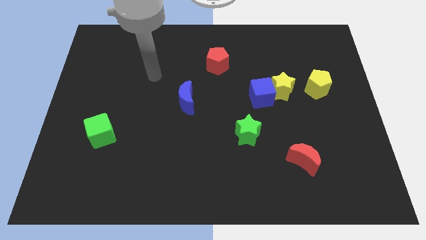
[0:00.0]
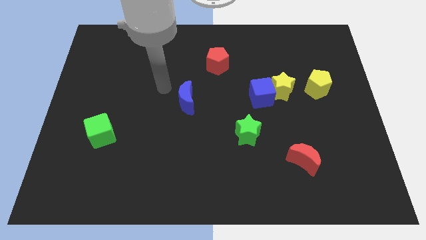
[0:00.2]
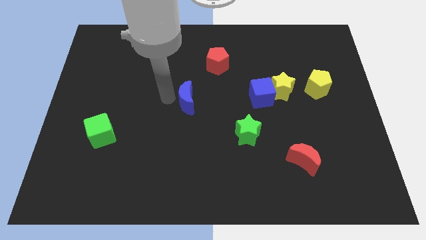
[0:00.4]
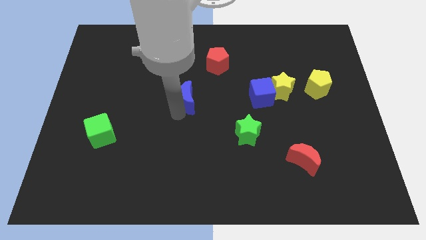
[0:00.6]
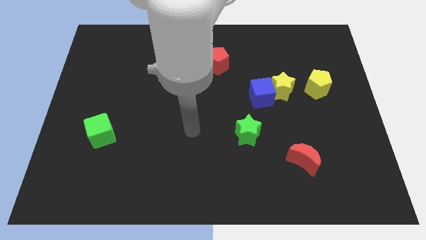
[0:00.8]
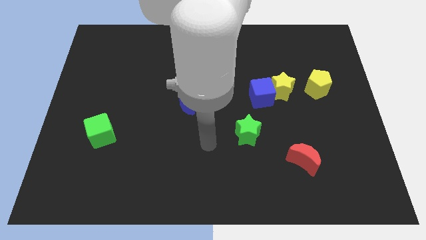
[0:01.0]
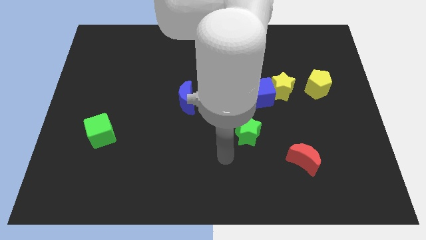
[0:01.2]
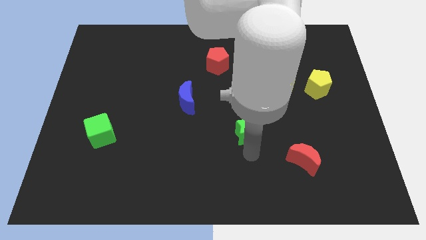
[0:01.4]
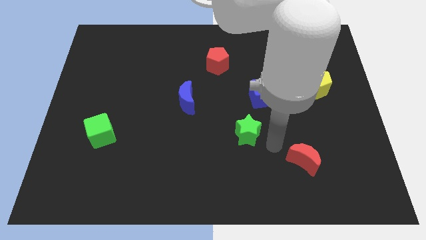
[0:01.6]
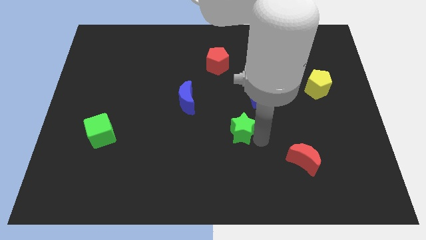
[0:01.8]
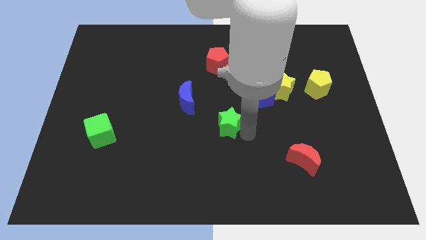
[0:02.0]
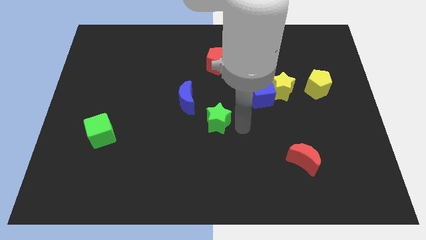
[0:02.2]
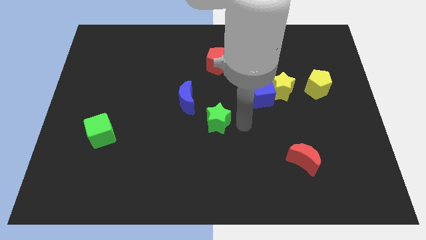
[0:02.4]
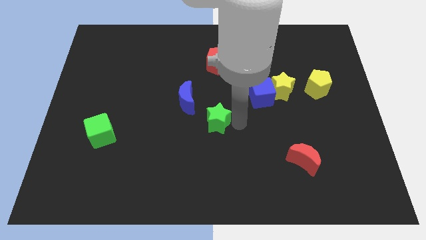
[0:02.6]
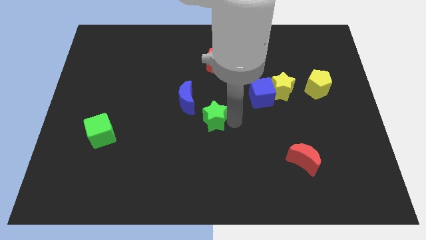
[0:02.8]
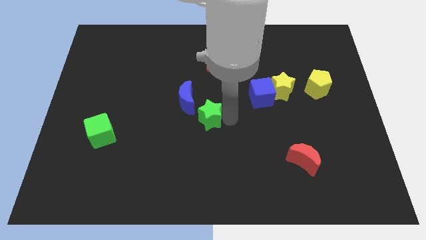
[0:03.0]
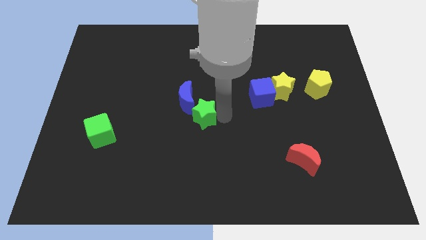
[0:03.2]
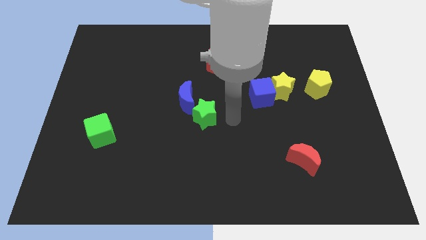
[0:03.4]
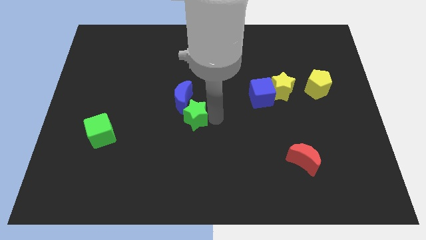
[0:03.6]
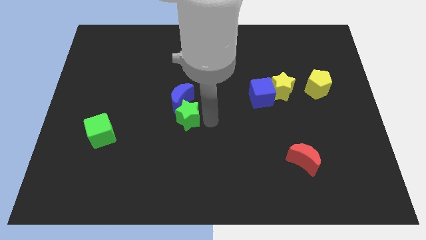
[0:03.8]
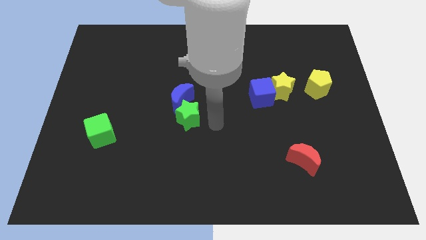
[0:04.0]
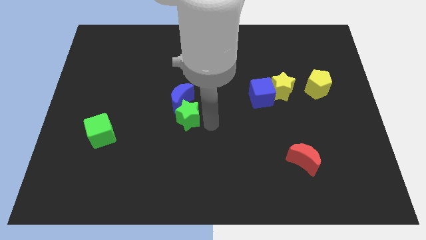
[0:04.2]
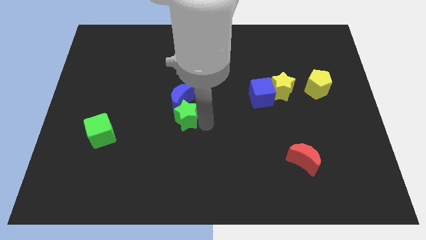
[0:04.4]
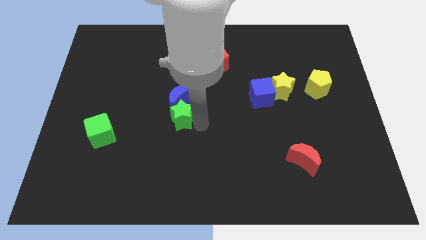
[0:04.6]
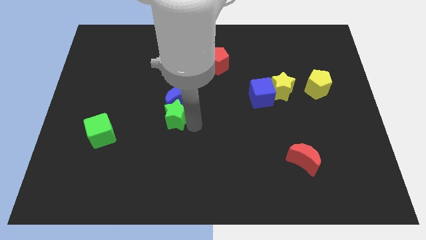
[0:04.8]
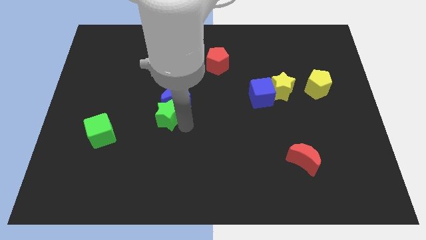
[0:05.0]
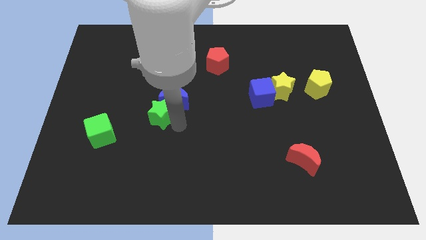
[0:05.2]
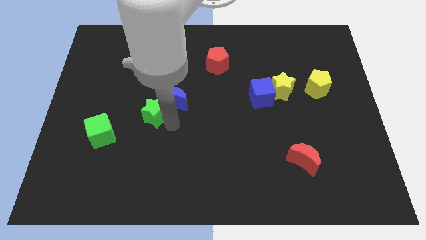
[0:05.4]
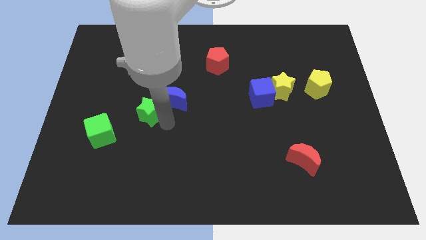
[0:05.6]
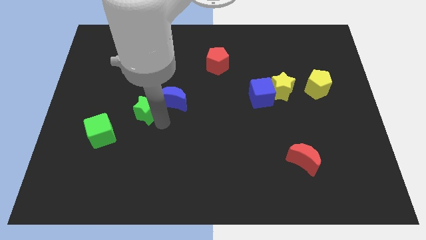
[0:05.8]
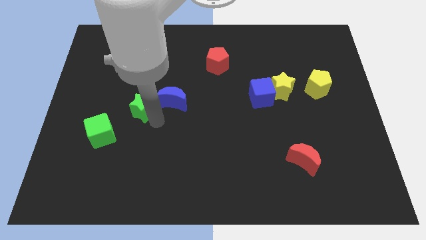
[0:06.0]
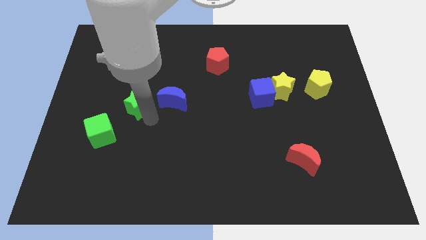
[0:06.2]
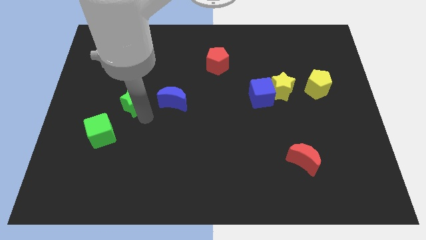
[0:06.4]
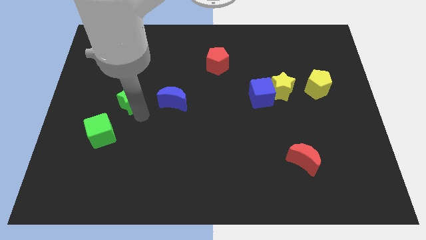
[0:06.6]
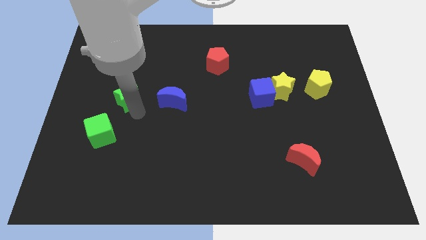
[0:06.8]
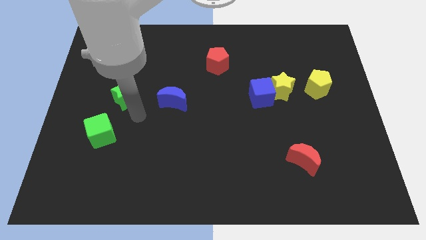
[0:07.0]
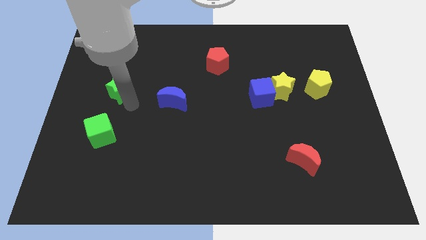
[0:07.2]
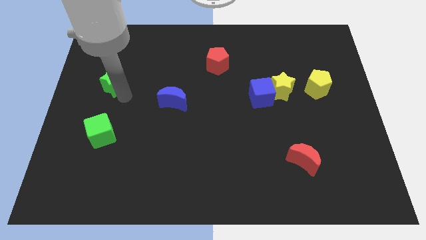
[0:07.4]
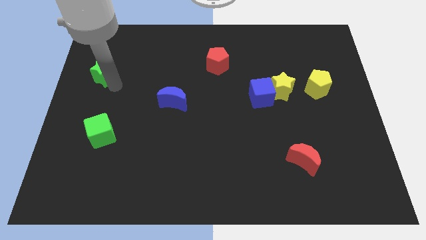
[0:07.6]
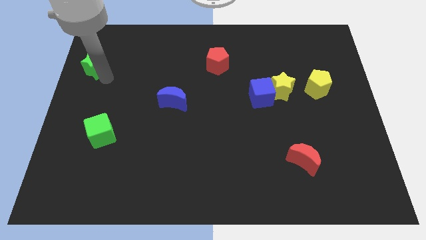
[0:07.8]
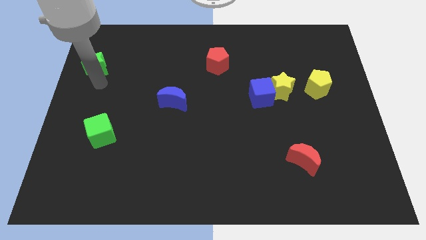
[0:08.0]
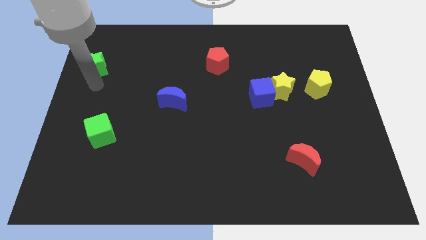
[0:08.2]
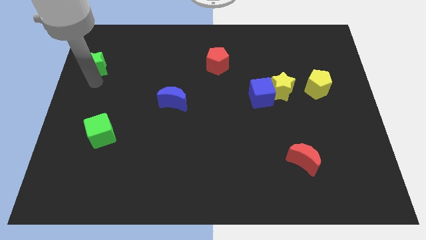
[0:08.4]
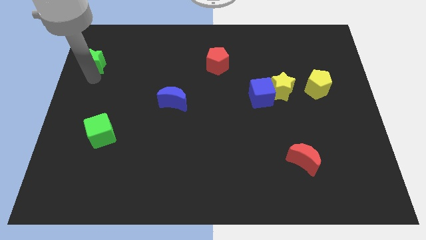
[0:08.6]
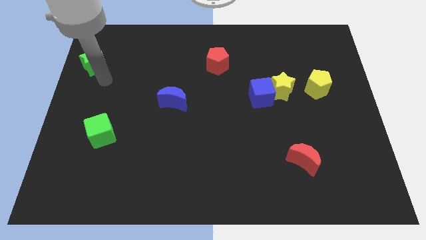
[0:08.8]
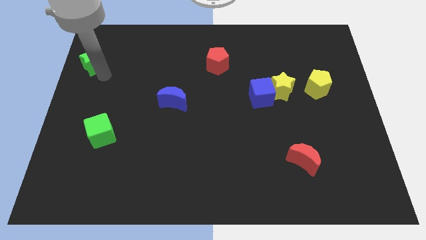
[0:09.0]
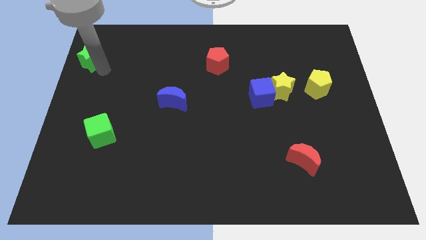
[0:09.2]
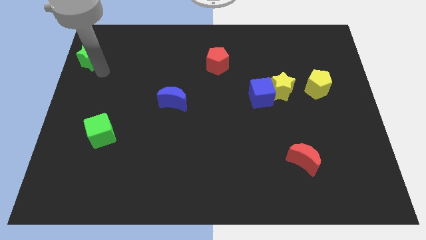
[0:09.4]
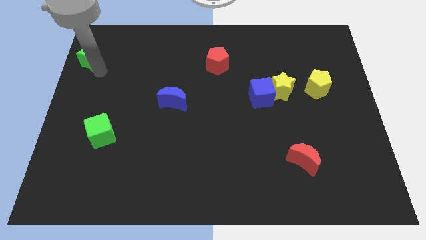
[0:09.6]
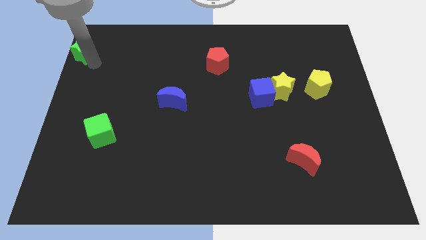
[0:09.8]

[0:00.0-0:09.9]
slide the green star to the top left of the board

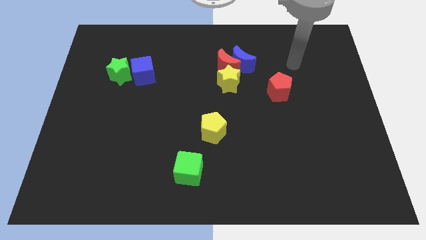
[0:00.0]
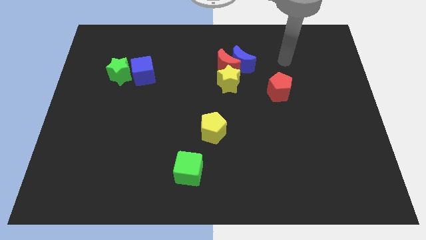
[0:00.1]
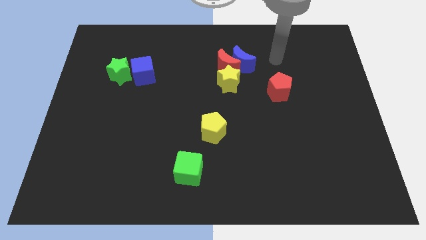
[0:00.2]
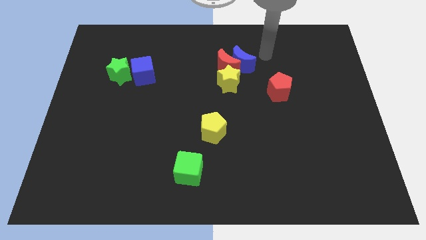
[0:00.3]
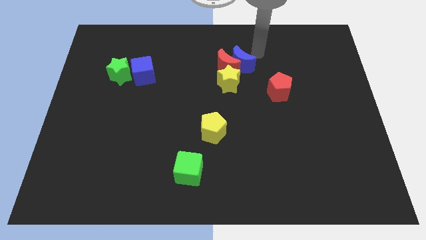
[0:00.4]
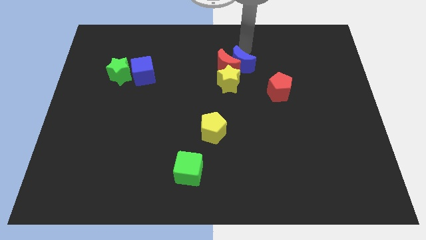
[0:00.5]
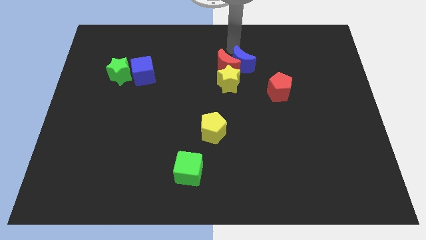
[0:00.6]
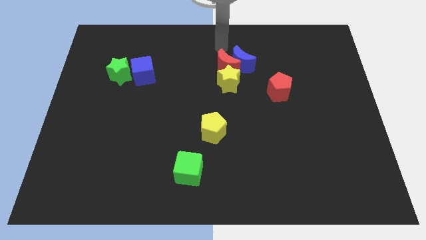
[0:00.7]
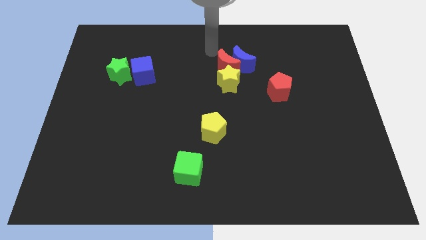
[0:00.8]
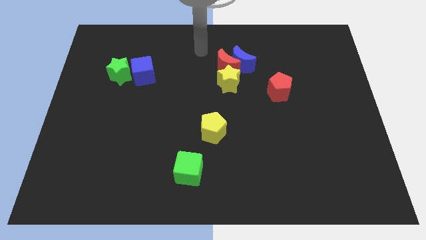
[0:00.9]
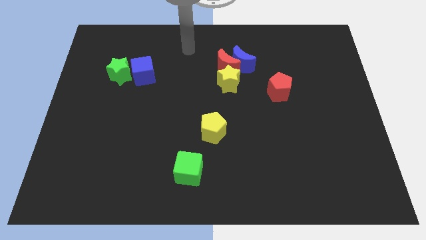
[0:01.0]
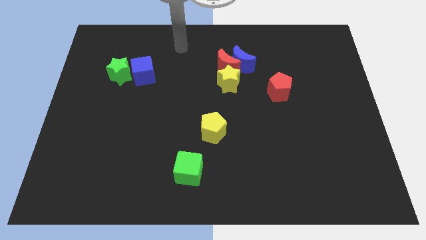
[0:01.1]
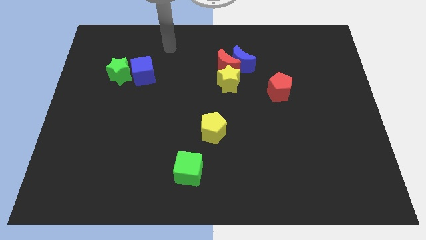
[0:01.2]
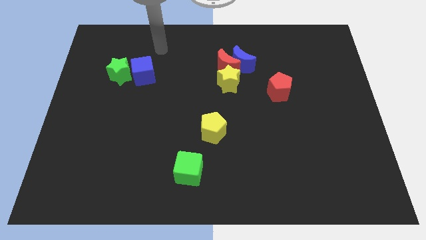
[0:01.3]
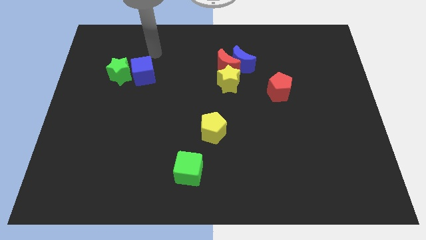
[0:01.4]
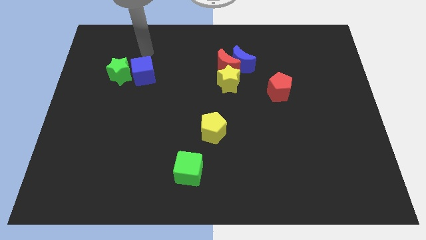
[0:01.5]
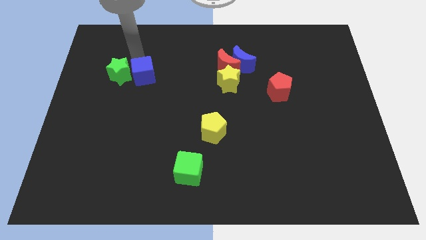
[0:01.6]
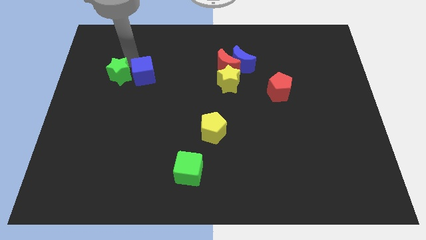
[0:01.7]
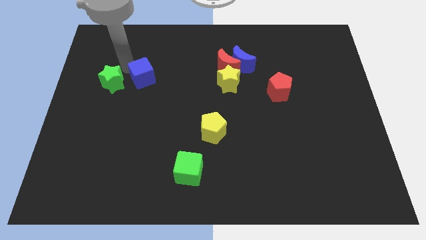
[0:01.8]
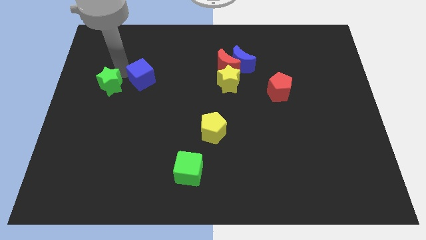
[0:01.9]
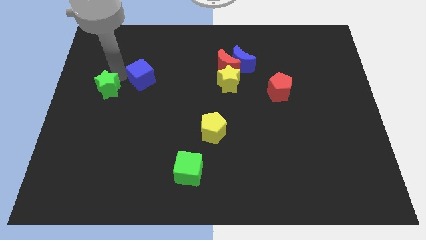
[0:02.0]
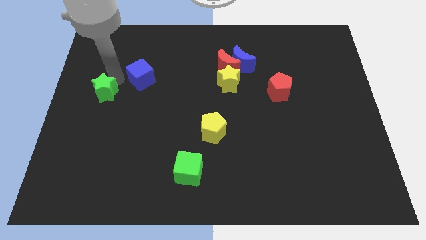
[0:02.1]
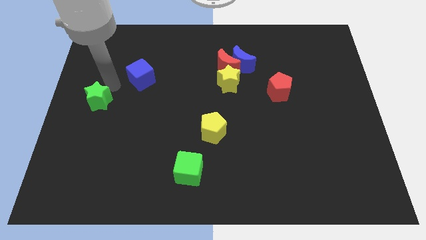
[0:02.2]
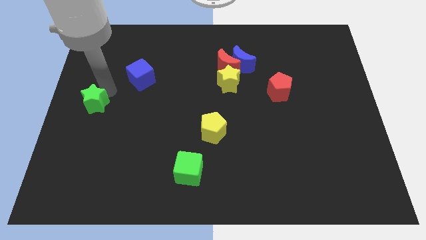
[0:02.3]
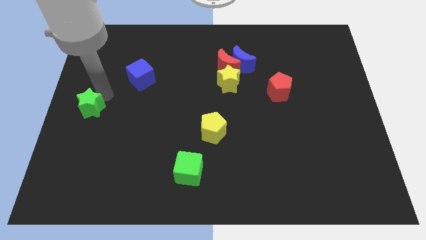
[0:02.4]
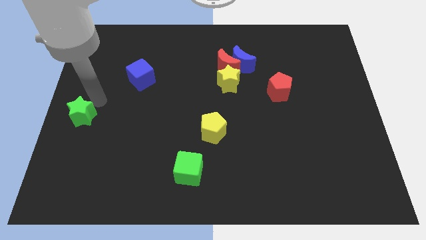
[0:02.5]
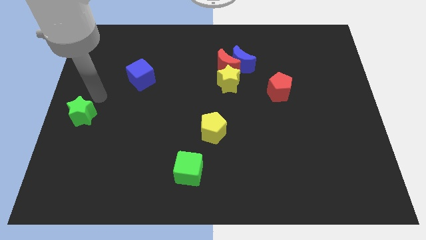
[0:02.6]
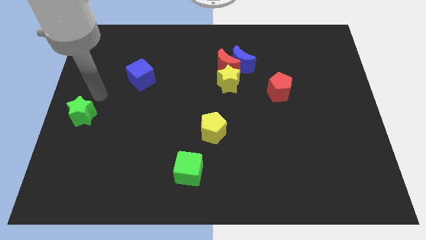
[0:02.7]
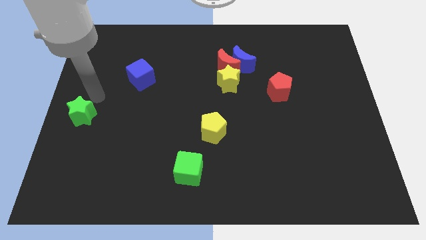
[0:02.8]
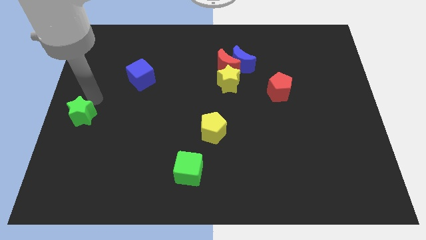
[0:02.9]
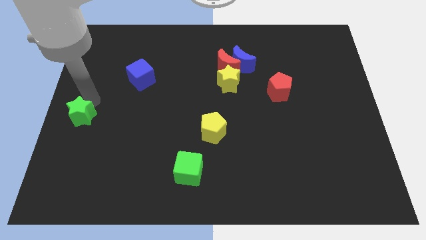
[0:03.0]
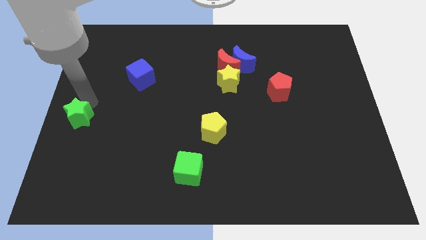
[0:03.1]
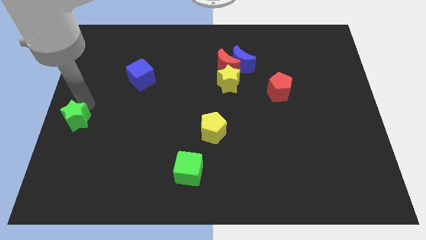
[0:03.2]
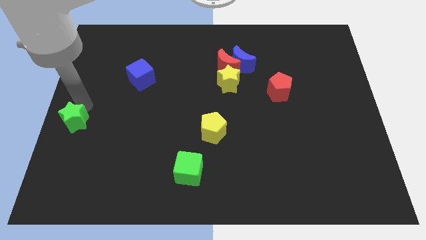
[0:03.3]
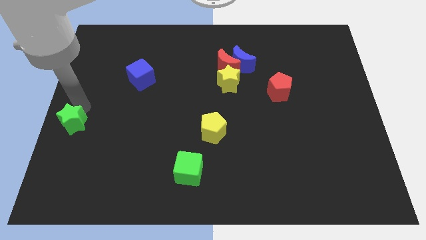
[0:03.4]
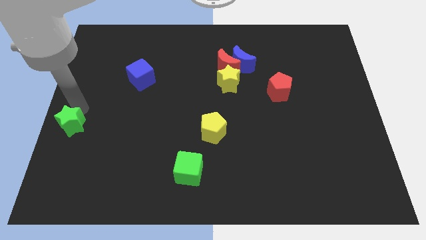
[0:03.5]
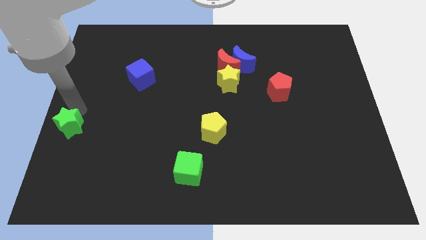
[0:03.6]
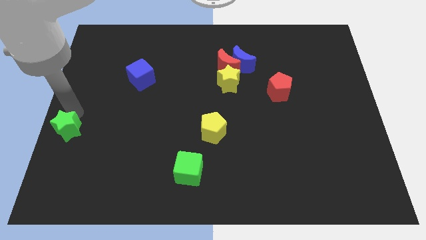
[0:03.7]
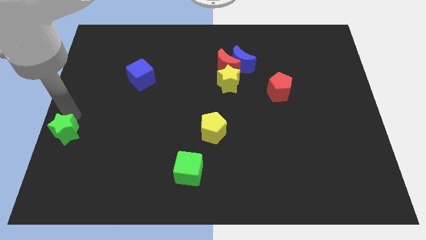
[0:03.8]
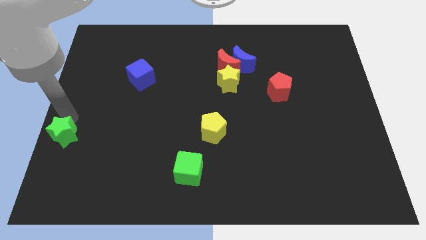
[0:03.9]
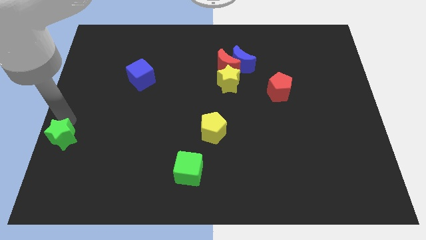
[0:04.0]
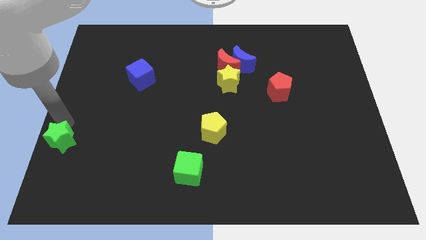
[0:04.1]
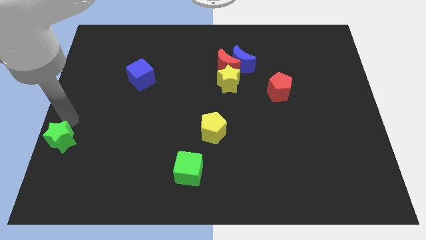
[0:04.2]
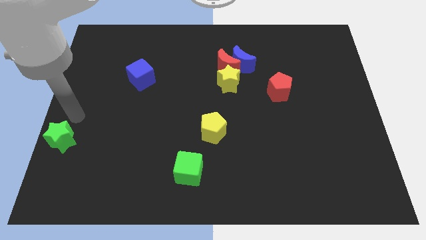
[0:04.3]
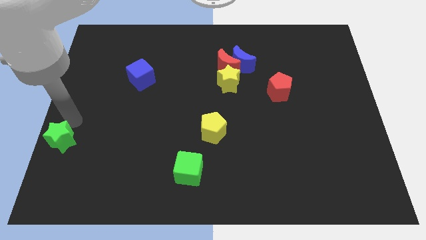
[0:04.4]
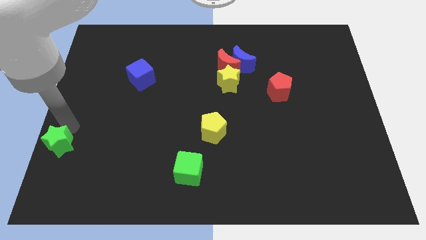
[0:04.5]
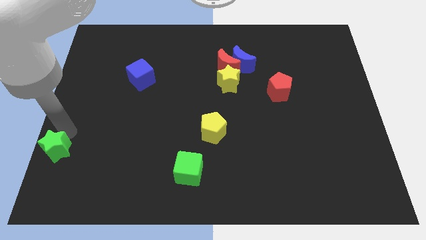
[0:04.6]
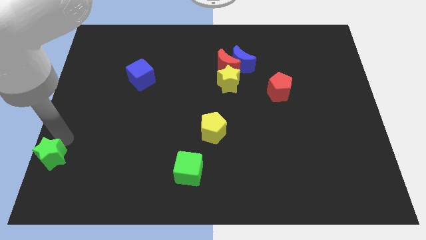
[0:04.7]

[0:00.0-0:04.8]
put the green star to the bottom left corner
